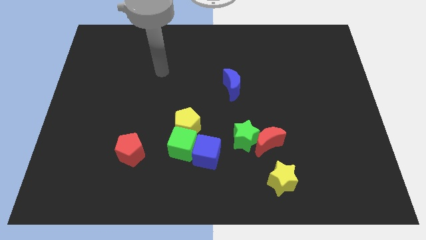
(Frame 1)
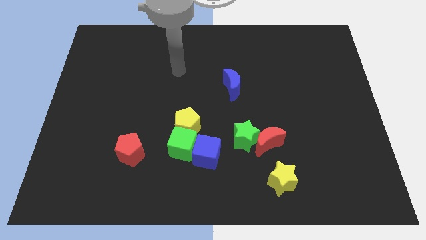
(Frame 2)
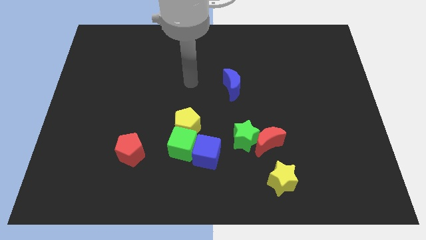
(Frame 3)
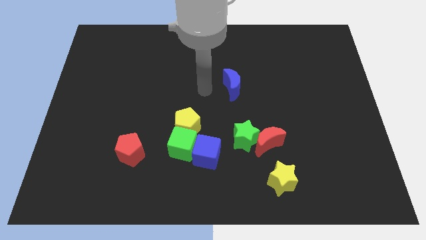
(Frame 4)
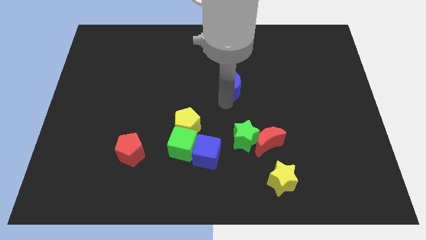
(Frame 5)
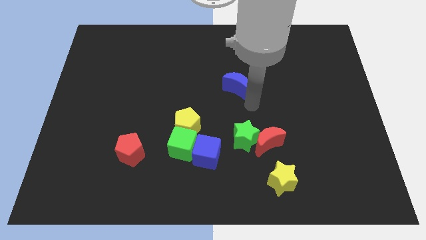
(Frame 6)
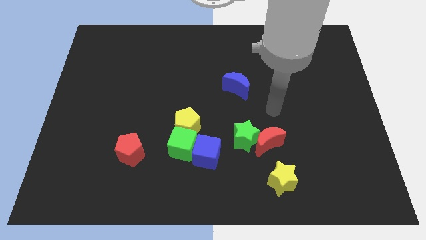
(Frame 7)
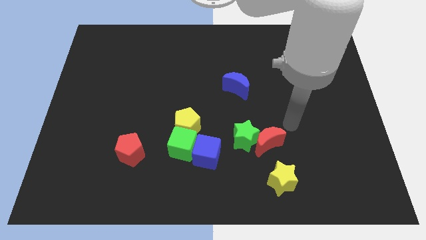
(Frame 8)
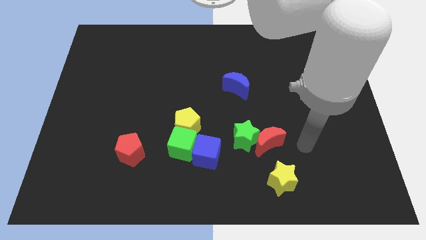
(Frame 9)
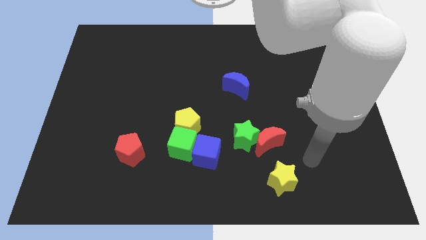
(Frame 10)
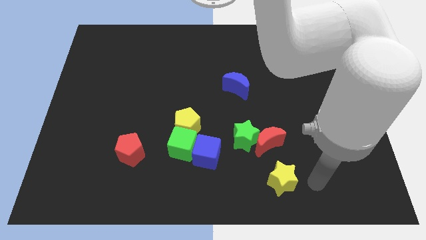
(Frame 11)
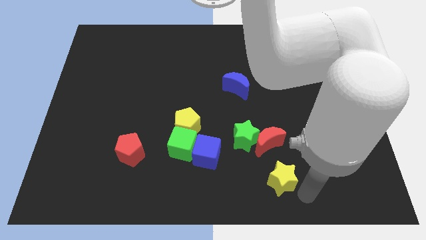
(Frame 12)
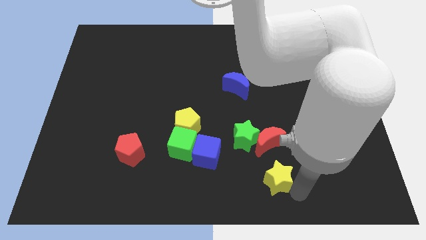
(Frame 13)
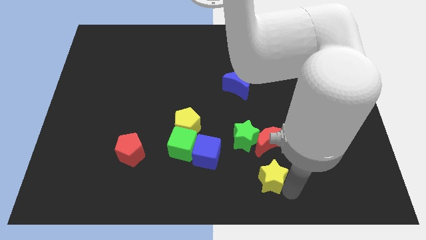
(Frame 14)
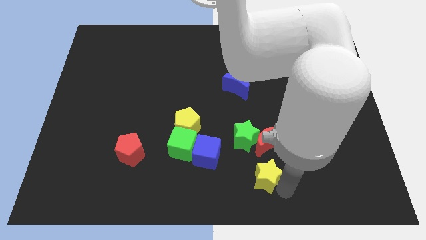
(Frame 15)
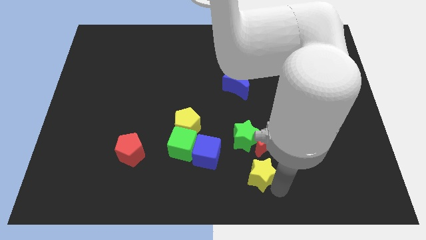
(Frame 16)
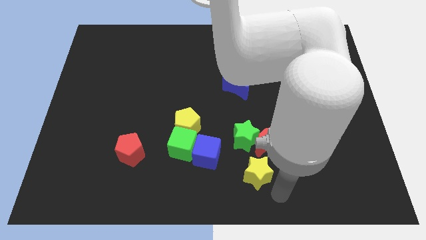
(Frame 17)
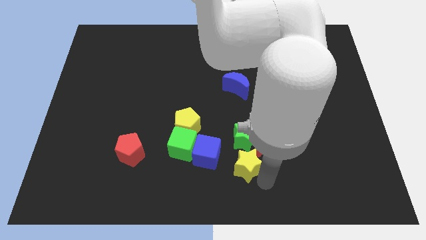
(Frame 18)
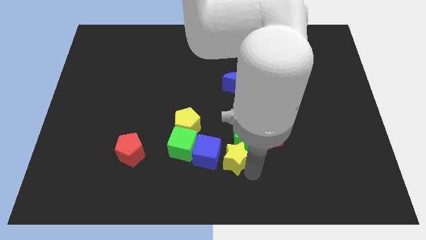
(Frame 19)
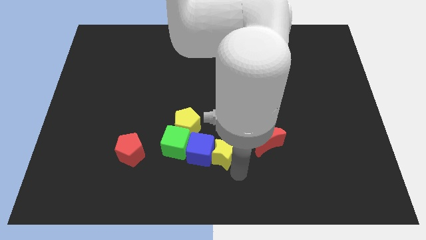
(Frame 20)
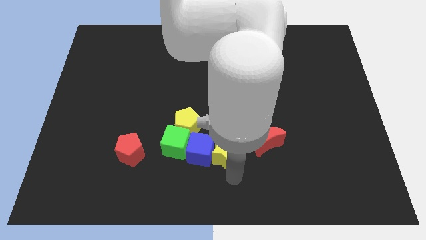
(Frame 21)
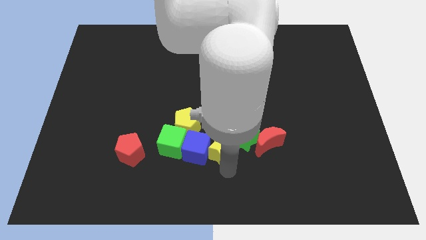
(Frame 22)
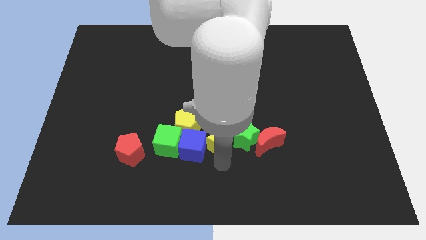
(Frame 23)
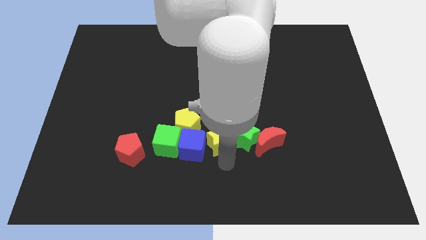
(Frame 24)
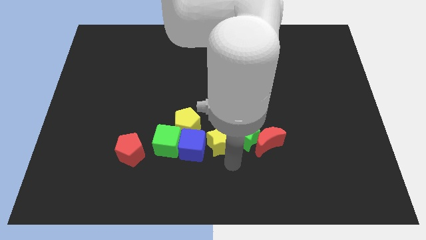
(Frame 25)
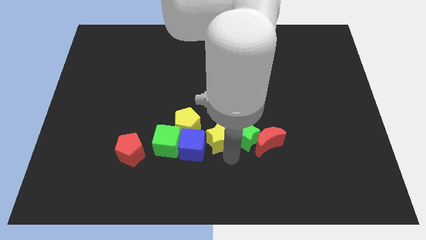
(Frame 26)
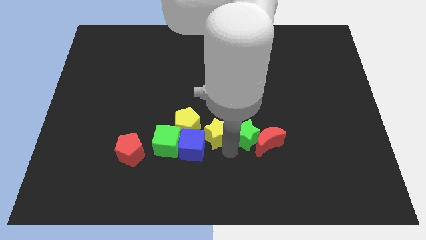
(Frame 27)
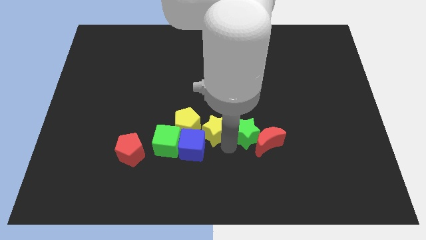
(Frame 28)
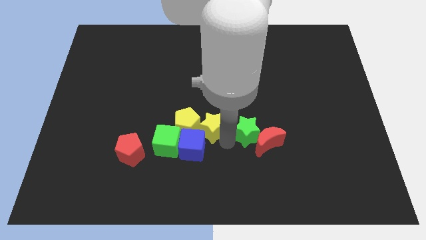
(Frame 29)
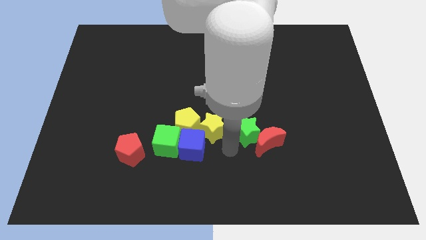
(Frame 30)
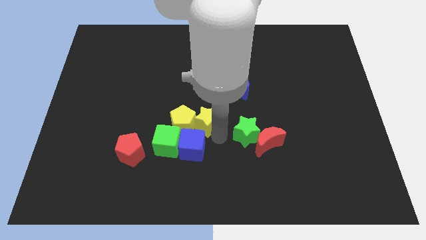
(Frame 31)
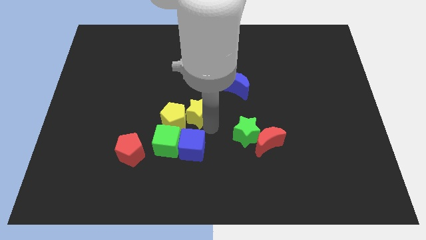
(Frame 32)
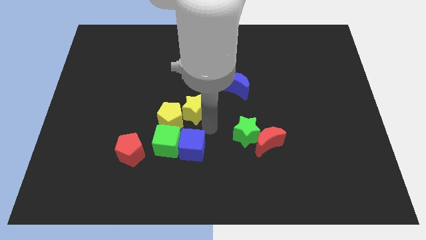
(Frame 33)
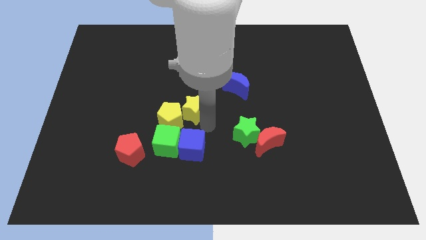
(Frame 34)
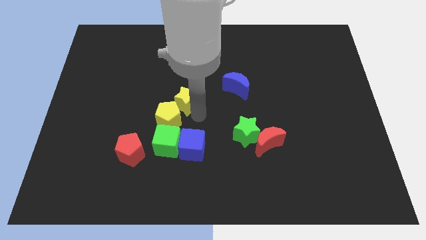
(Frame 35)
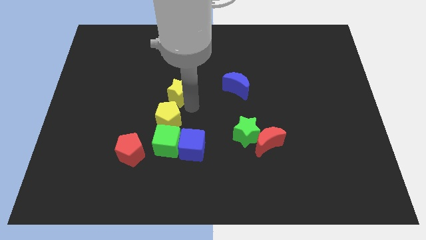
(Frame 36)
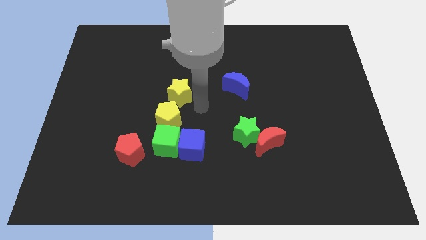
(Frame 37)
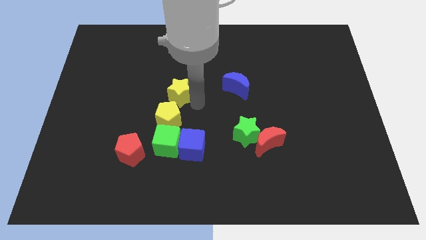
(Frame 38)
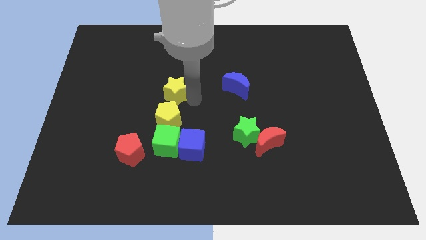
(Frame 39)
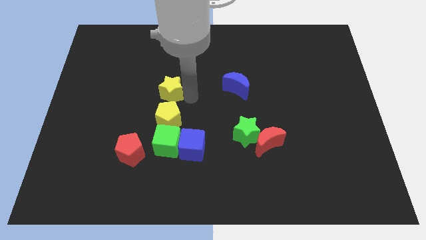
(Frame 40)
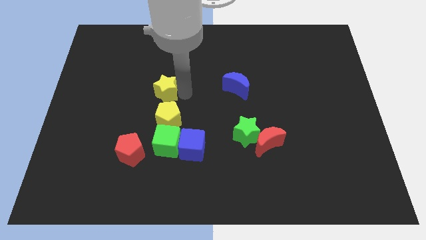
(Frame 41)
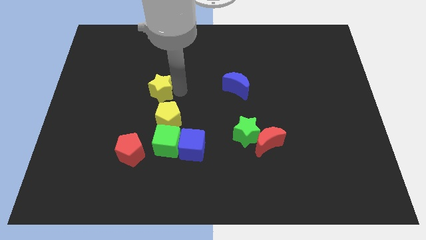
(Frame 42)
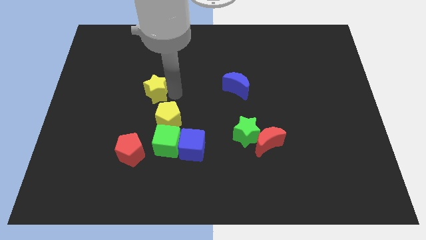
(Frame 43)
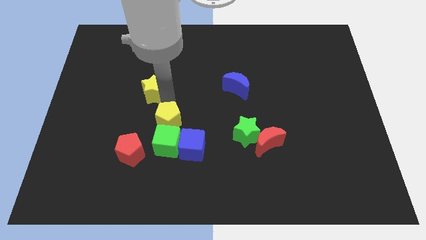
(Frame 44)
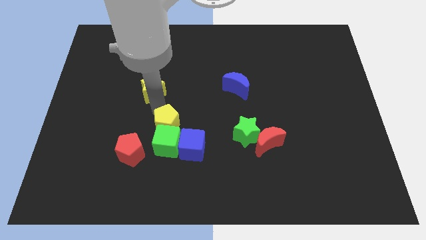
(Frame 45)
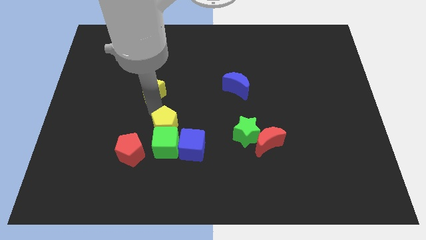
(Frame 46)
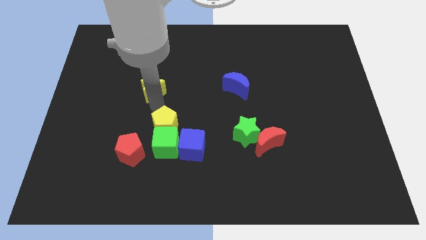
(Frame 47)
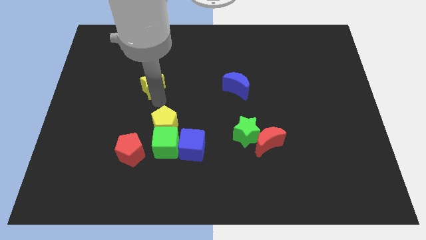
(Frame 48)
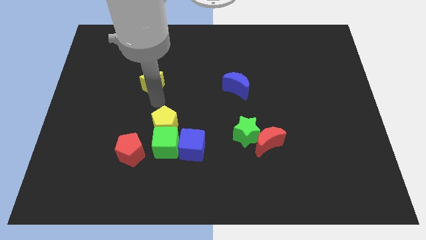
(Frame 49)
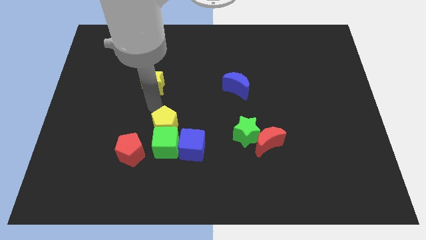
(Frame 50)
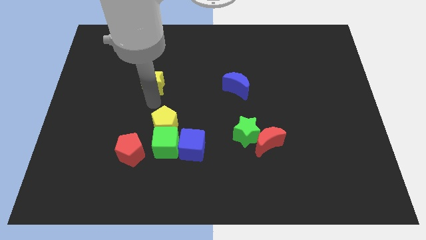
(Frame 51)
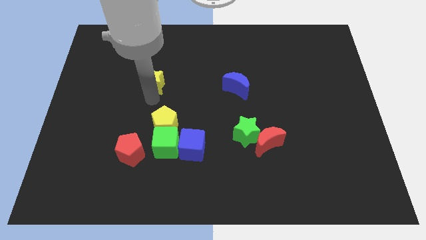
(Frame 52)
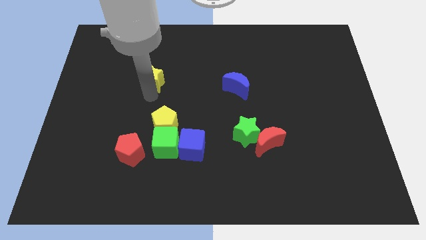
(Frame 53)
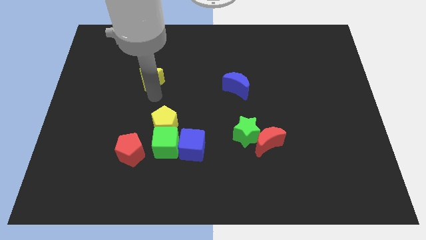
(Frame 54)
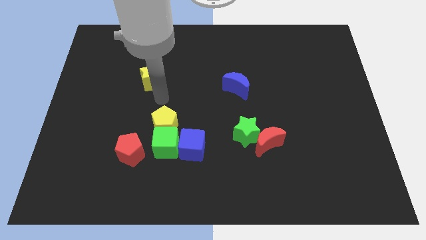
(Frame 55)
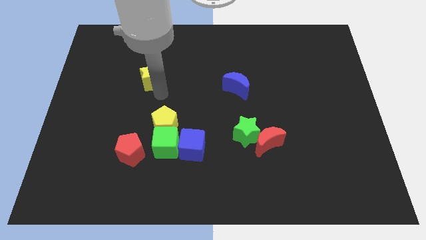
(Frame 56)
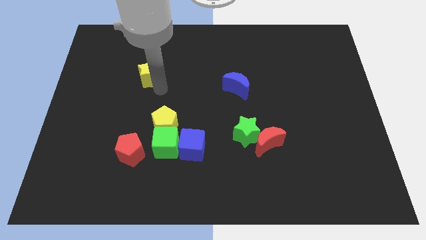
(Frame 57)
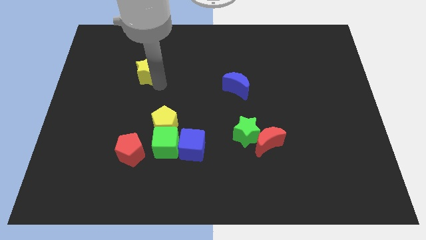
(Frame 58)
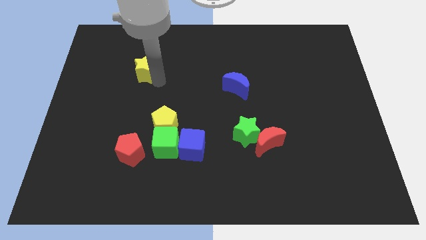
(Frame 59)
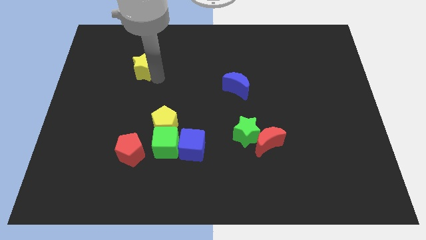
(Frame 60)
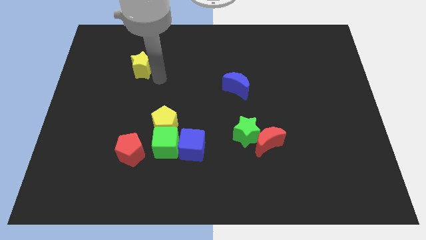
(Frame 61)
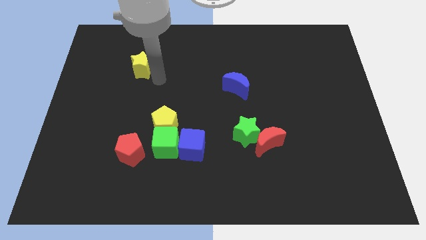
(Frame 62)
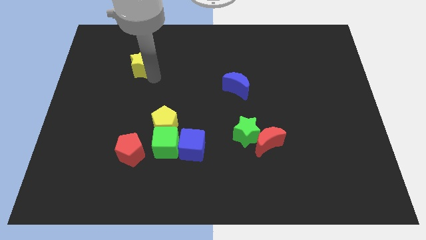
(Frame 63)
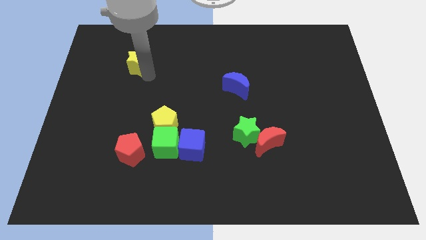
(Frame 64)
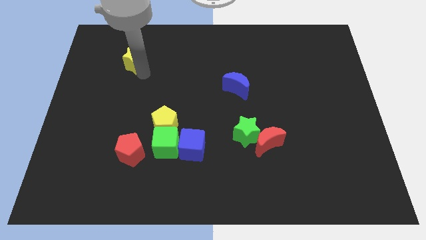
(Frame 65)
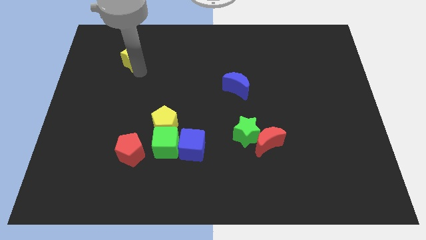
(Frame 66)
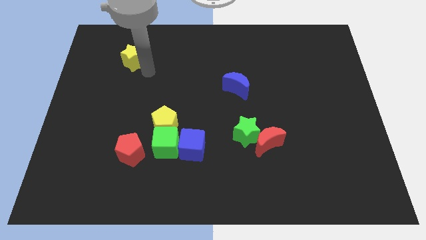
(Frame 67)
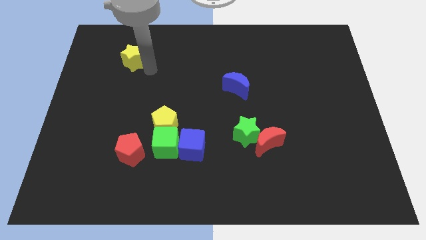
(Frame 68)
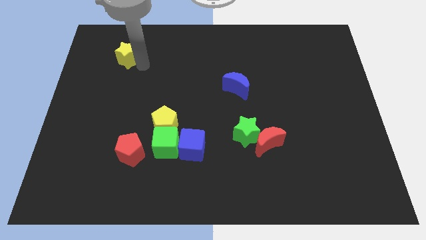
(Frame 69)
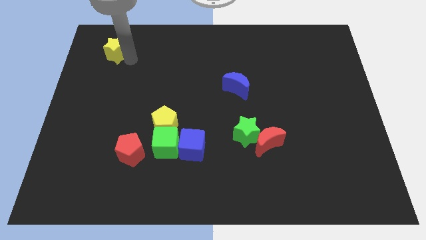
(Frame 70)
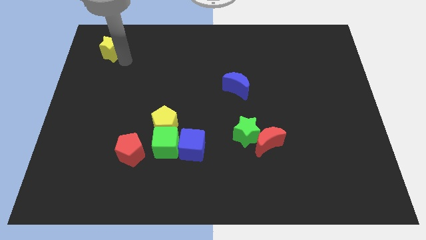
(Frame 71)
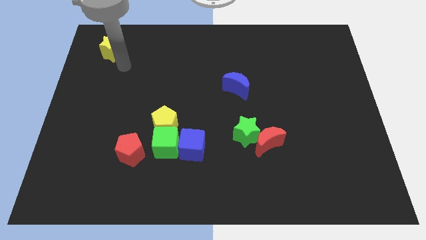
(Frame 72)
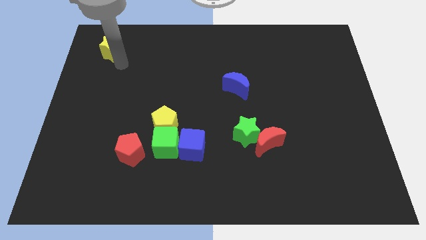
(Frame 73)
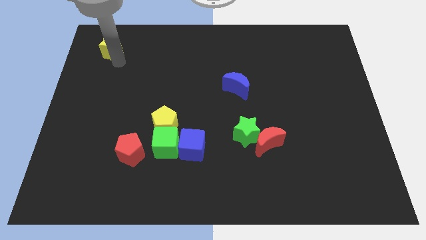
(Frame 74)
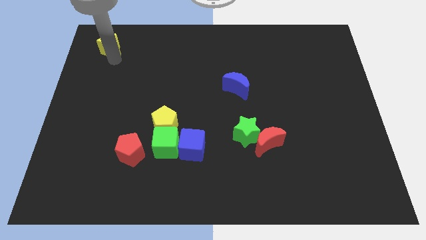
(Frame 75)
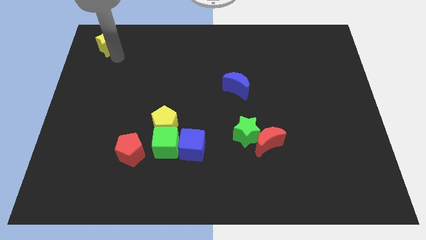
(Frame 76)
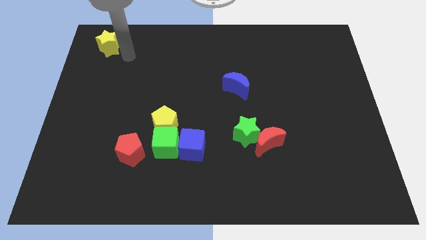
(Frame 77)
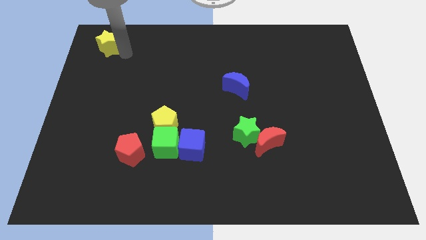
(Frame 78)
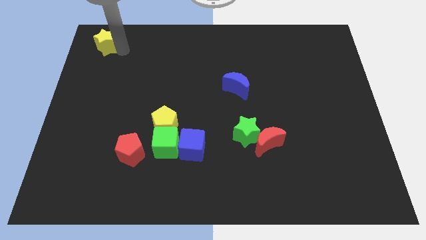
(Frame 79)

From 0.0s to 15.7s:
push the yellow star to the top left
